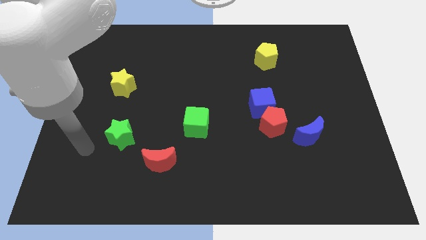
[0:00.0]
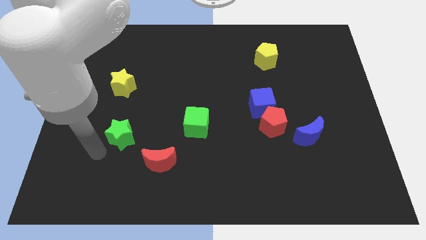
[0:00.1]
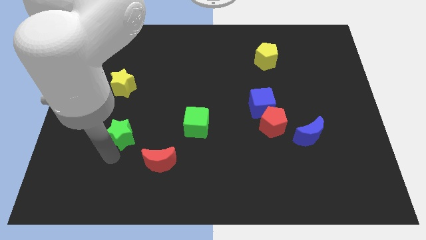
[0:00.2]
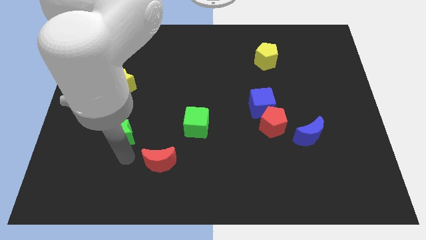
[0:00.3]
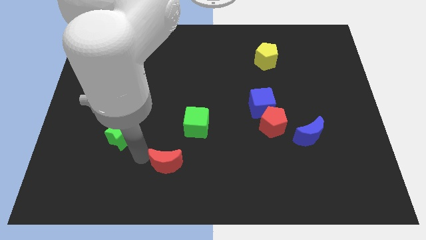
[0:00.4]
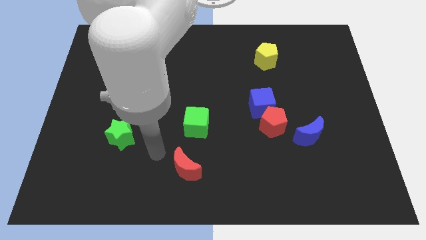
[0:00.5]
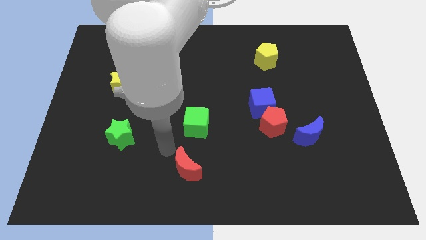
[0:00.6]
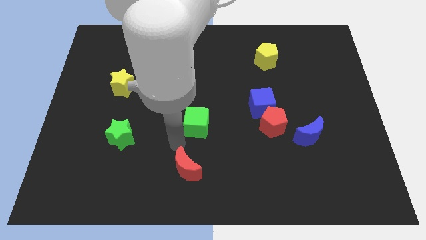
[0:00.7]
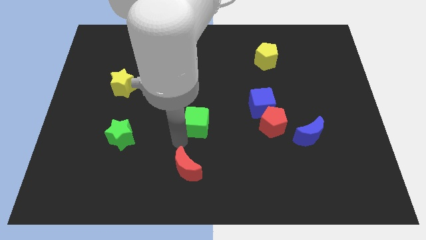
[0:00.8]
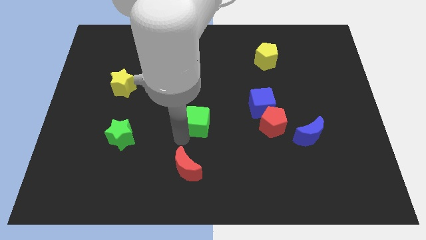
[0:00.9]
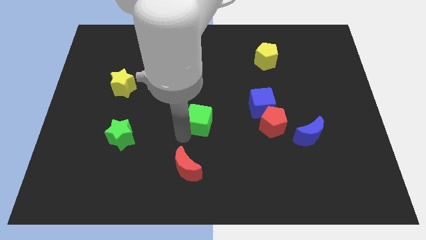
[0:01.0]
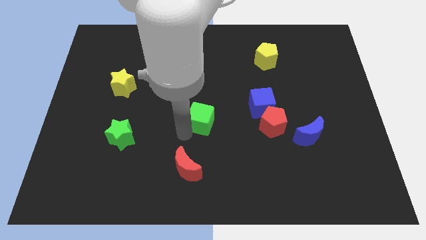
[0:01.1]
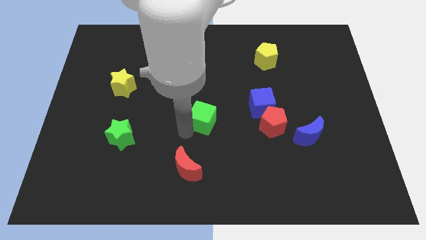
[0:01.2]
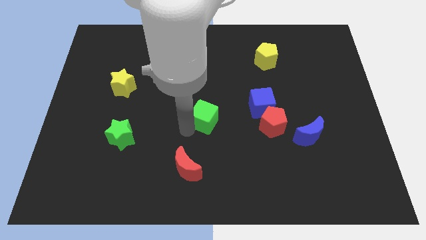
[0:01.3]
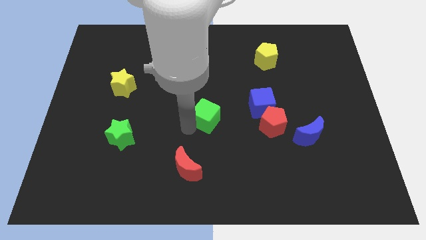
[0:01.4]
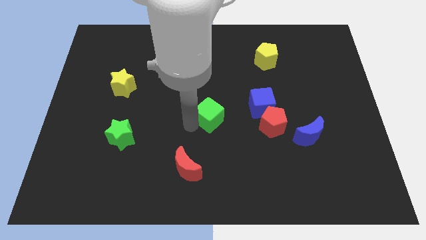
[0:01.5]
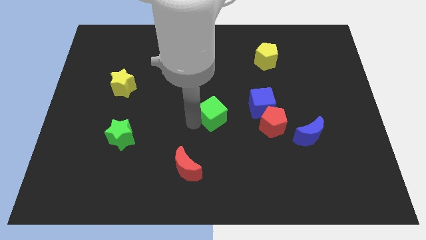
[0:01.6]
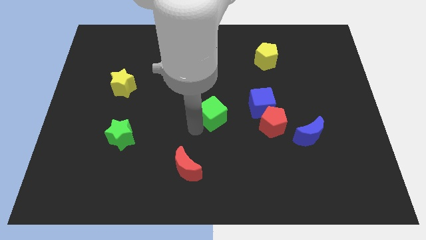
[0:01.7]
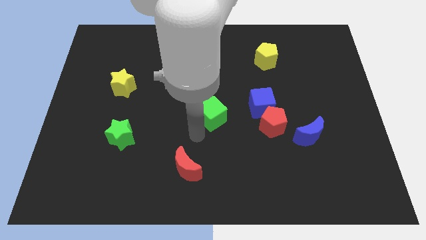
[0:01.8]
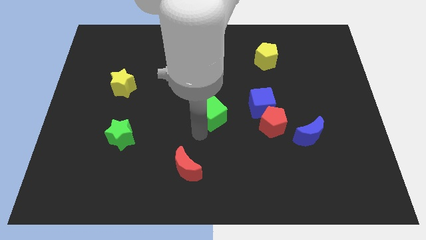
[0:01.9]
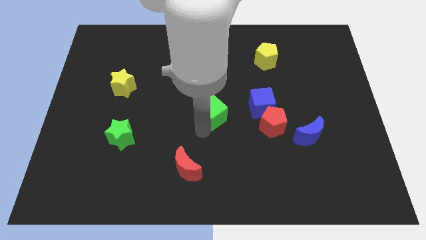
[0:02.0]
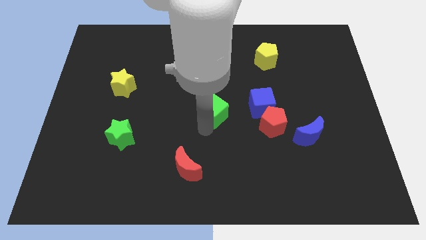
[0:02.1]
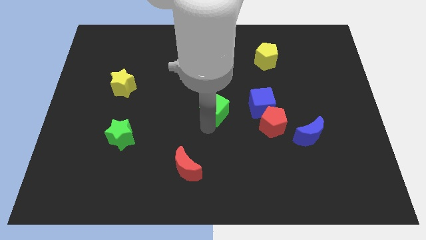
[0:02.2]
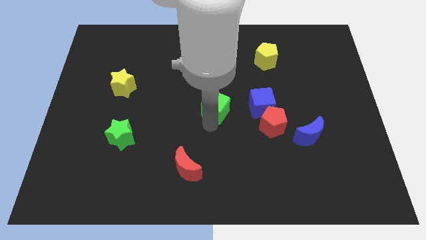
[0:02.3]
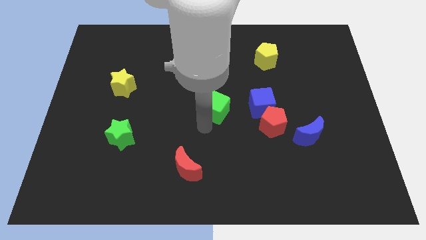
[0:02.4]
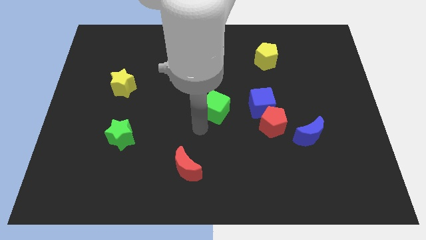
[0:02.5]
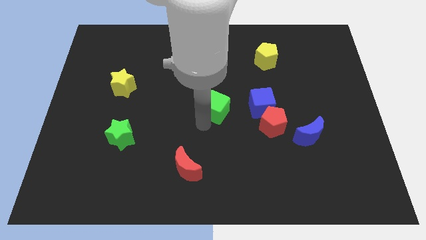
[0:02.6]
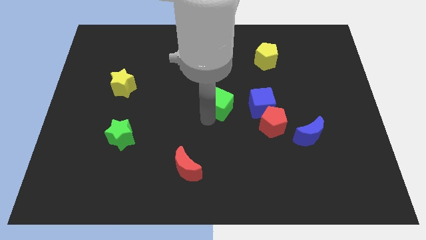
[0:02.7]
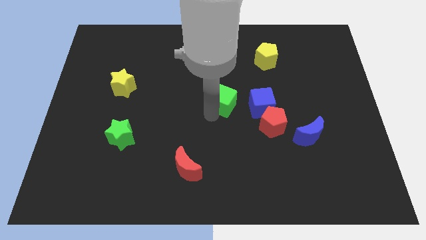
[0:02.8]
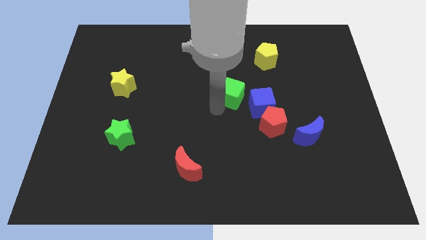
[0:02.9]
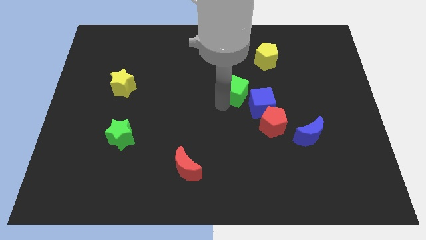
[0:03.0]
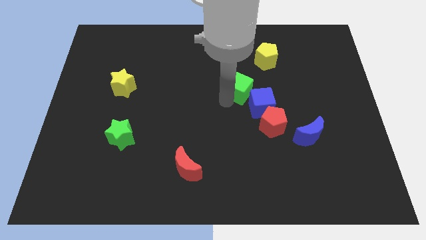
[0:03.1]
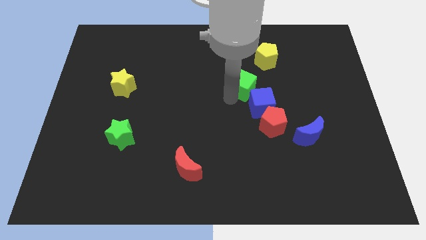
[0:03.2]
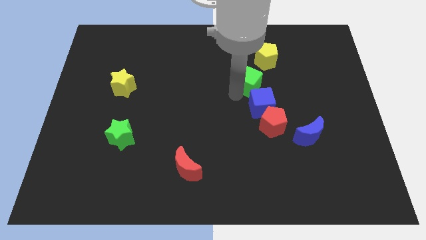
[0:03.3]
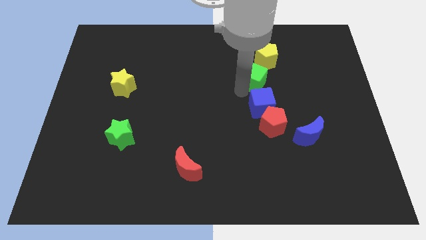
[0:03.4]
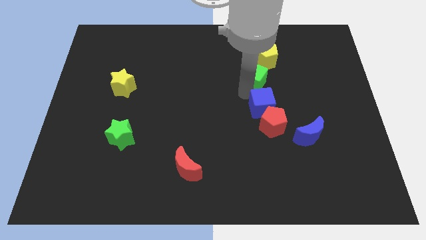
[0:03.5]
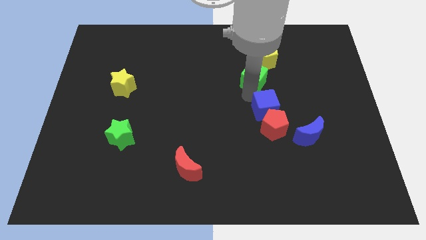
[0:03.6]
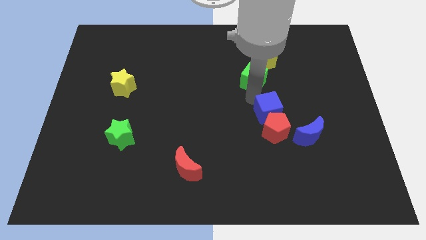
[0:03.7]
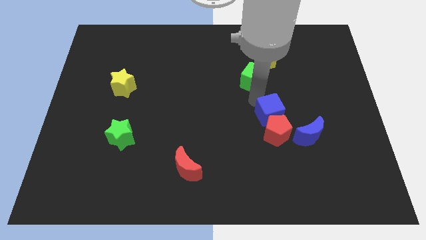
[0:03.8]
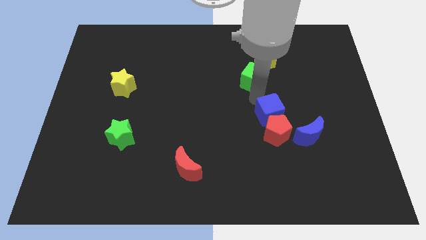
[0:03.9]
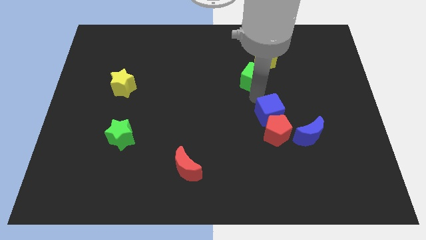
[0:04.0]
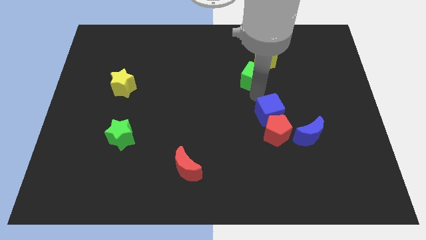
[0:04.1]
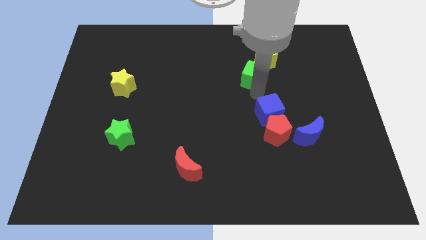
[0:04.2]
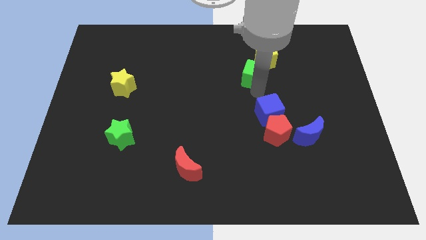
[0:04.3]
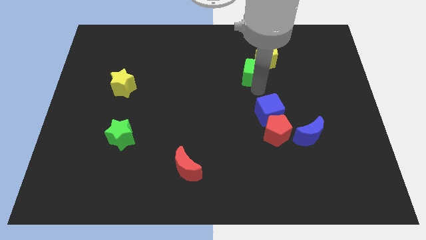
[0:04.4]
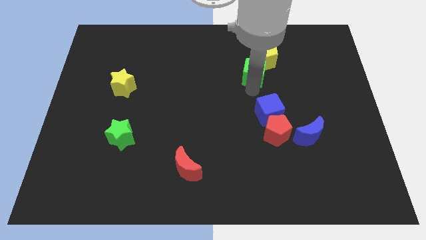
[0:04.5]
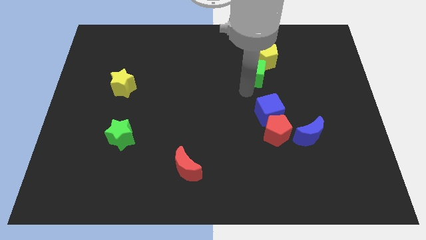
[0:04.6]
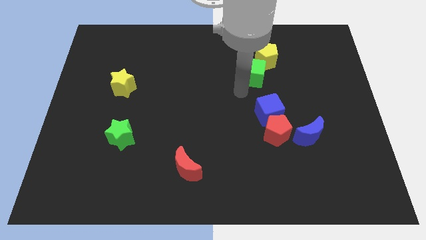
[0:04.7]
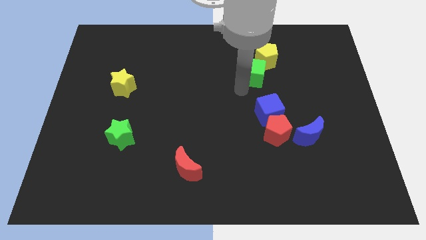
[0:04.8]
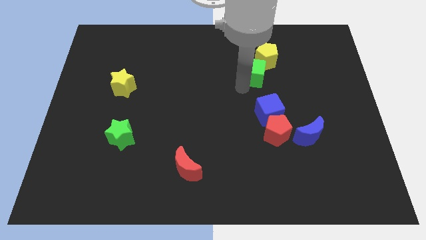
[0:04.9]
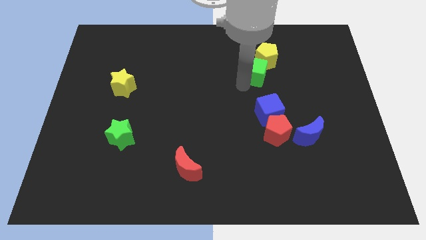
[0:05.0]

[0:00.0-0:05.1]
slide the green cube to the yellow pentagon

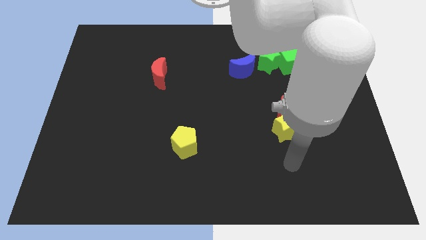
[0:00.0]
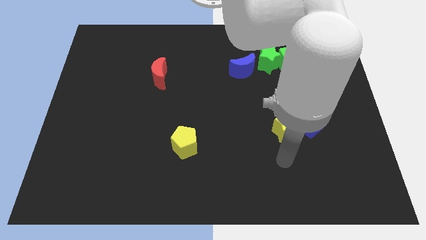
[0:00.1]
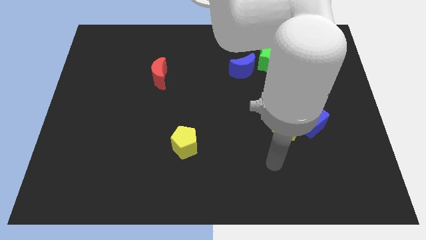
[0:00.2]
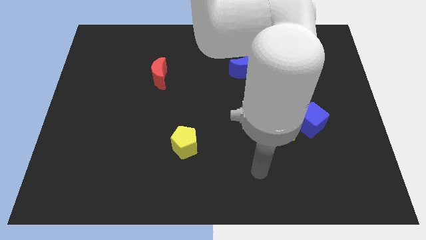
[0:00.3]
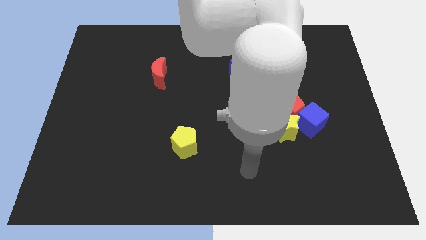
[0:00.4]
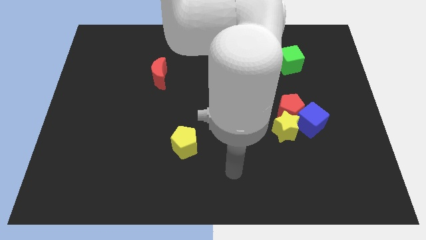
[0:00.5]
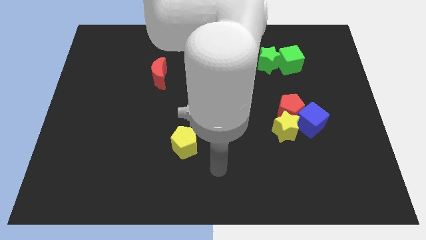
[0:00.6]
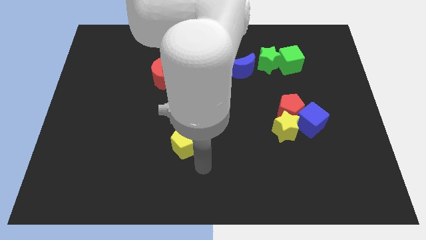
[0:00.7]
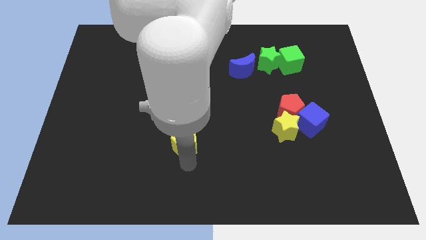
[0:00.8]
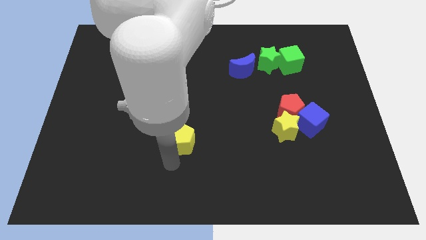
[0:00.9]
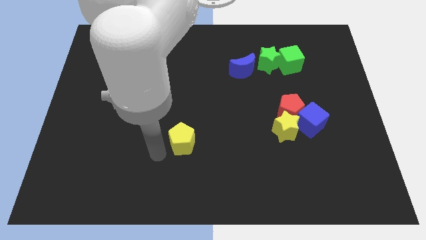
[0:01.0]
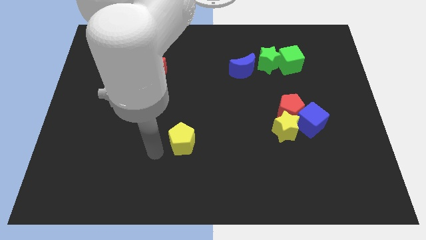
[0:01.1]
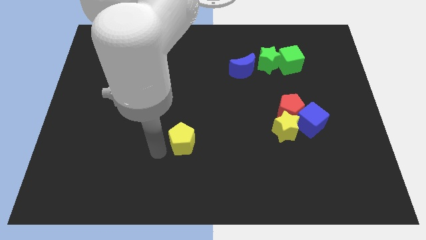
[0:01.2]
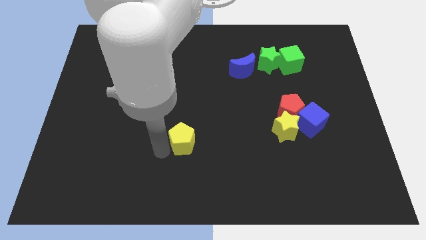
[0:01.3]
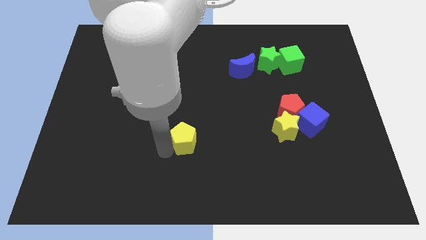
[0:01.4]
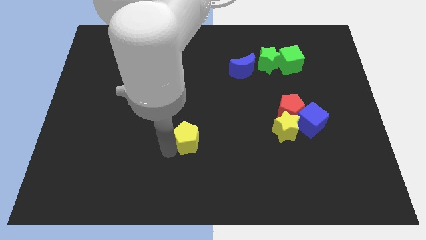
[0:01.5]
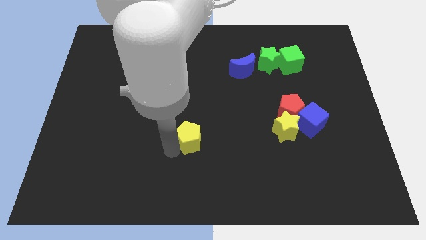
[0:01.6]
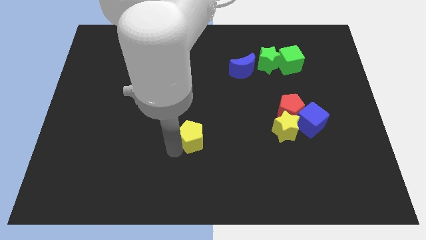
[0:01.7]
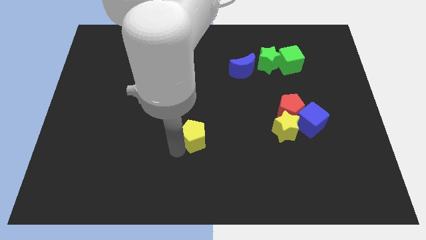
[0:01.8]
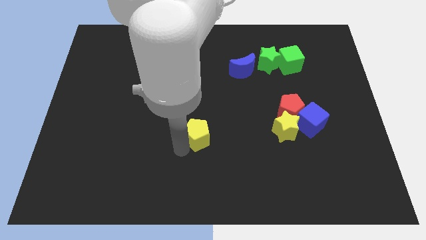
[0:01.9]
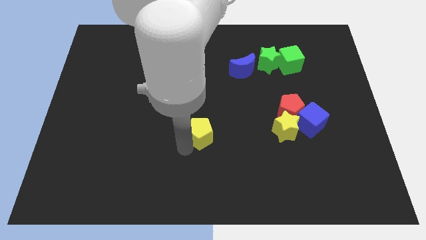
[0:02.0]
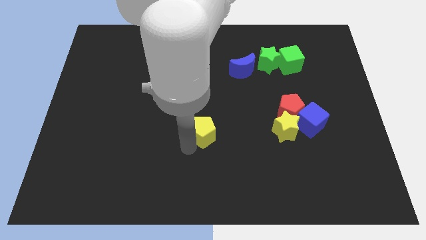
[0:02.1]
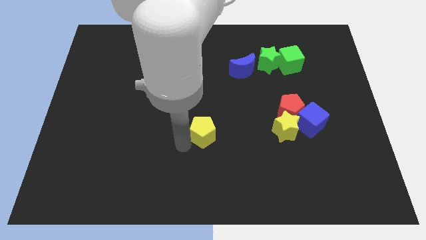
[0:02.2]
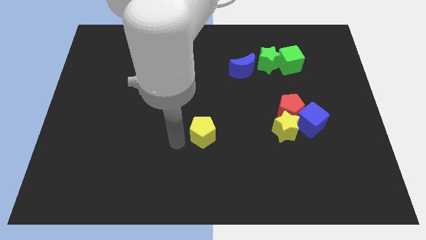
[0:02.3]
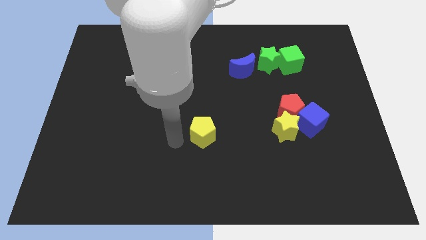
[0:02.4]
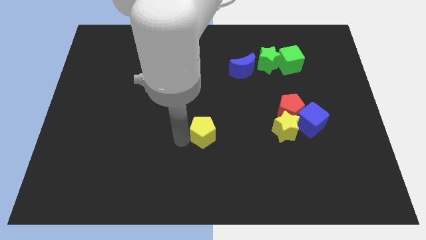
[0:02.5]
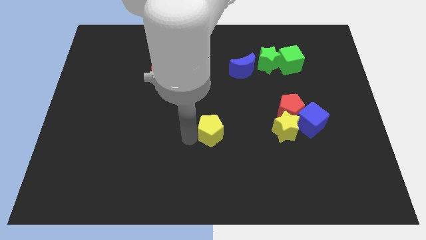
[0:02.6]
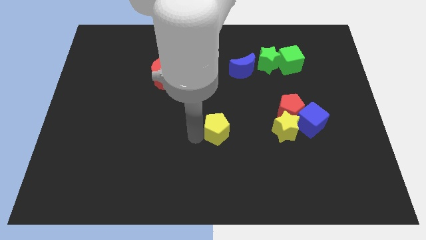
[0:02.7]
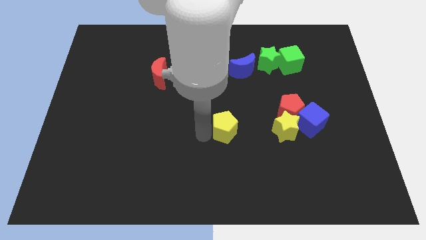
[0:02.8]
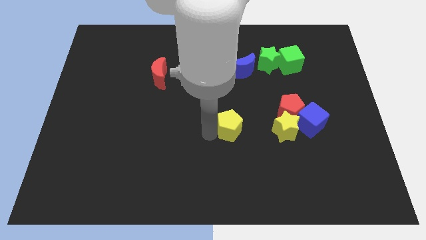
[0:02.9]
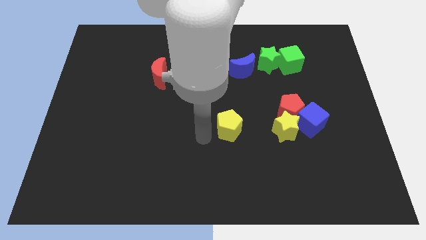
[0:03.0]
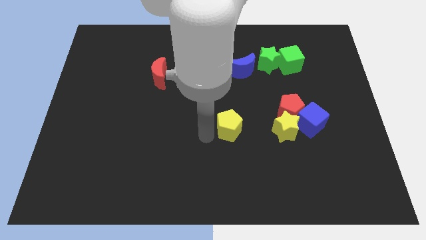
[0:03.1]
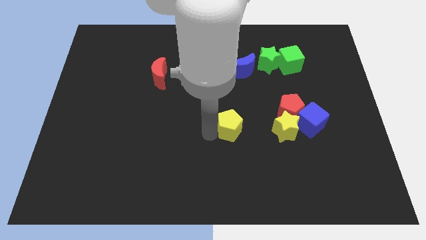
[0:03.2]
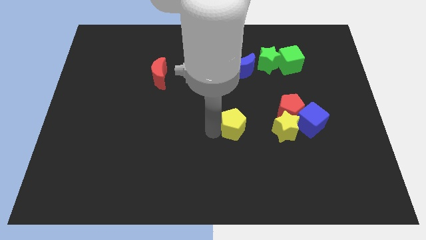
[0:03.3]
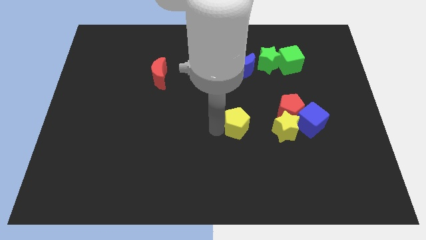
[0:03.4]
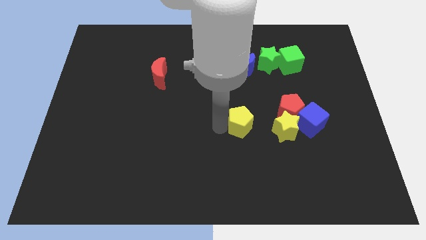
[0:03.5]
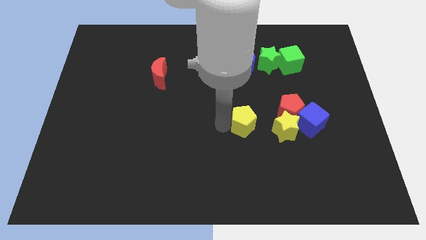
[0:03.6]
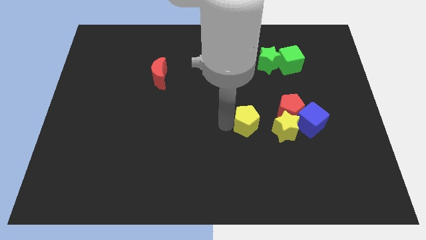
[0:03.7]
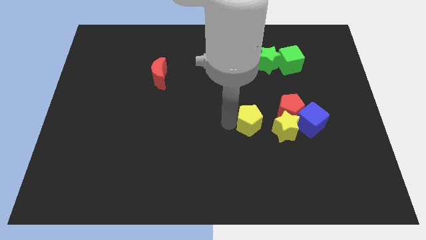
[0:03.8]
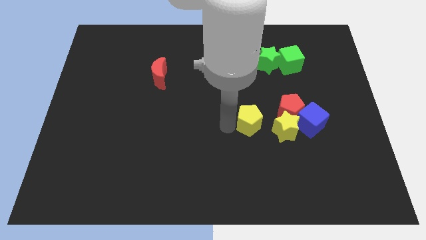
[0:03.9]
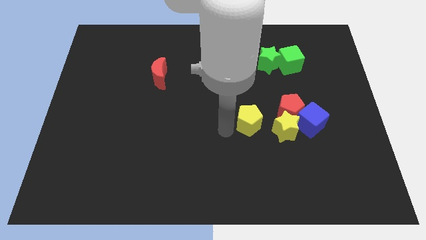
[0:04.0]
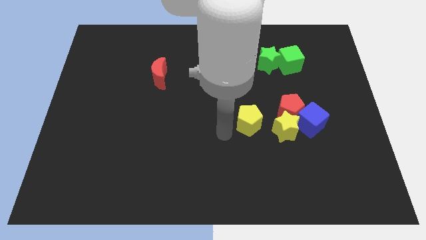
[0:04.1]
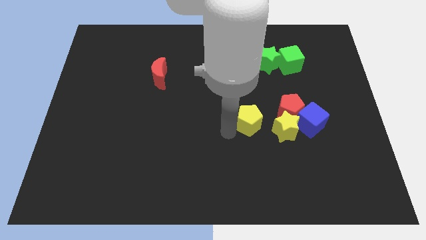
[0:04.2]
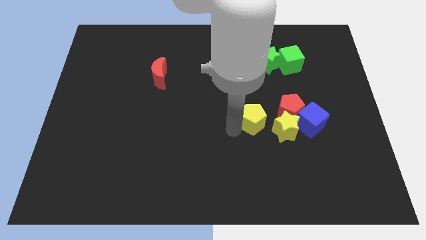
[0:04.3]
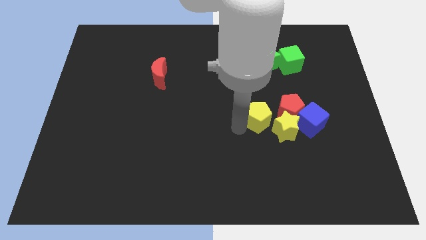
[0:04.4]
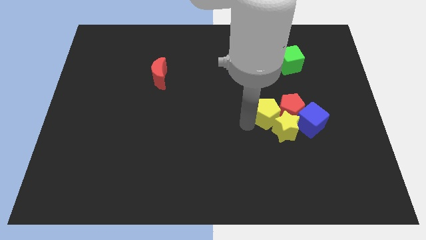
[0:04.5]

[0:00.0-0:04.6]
move the yellow pentagon towards the red pentagon
